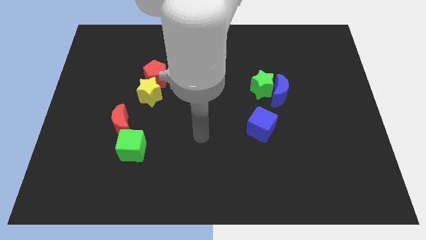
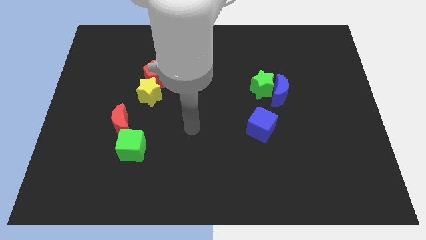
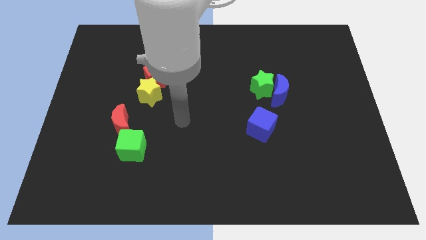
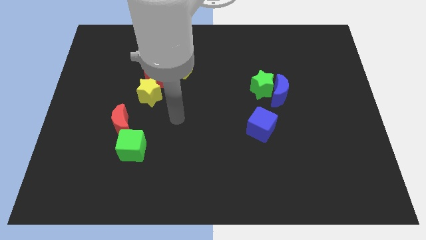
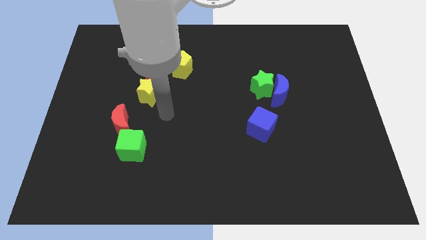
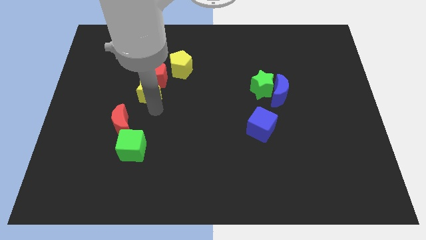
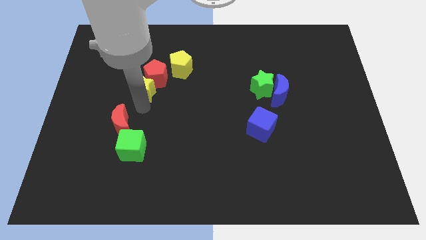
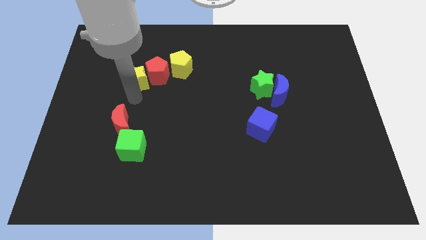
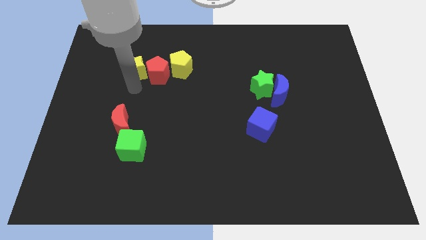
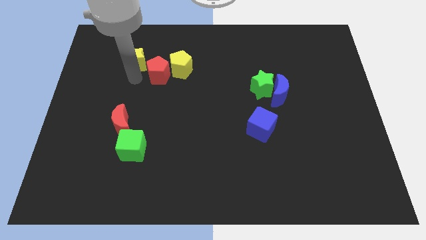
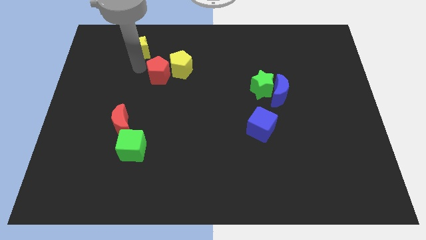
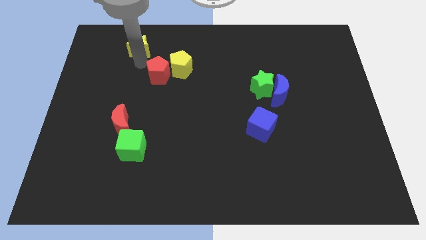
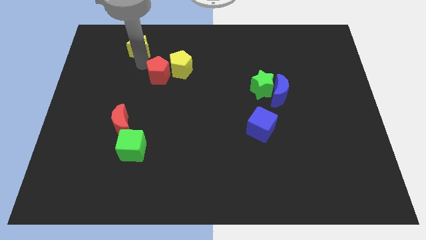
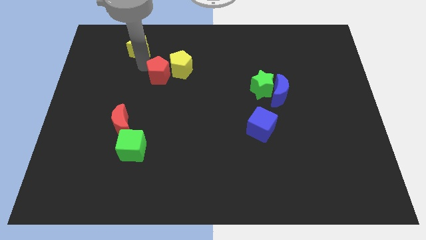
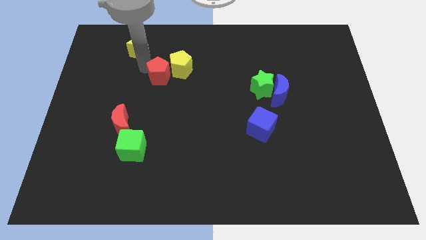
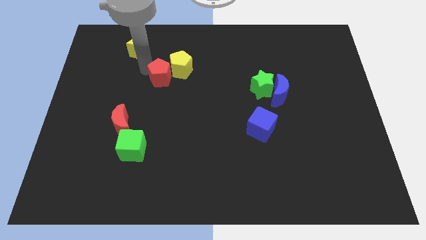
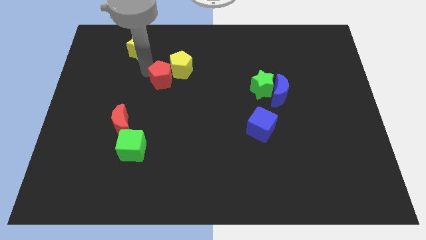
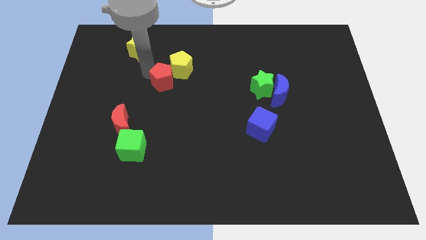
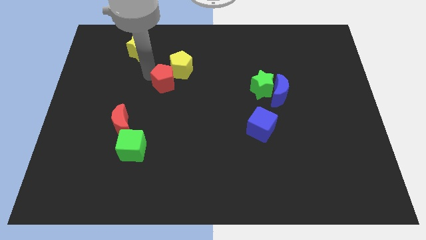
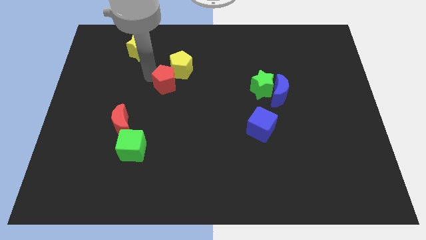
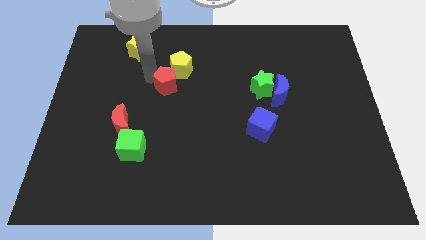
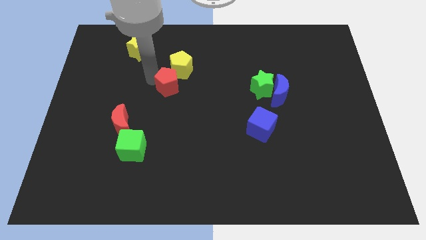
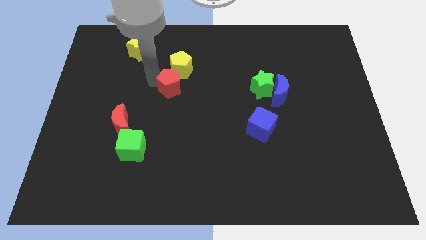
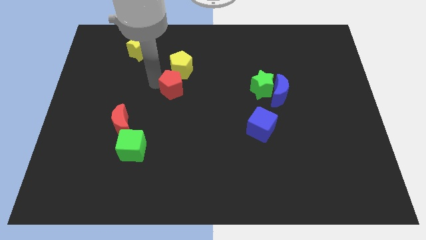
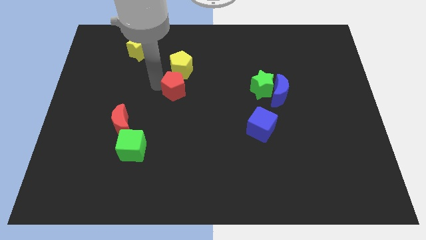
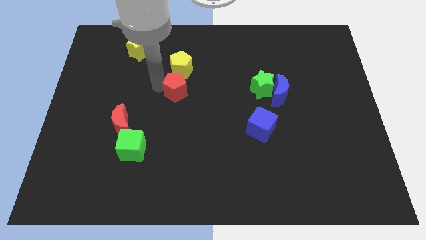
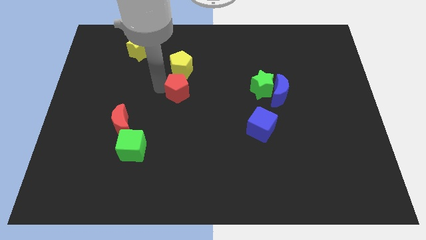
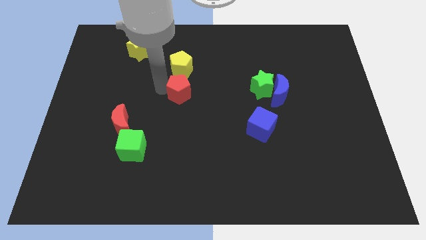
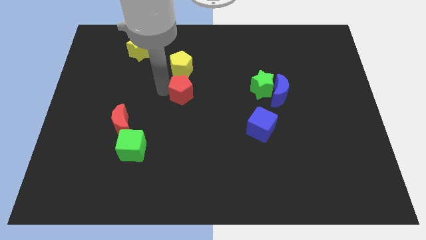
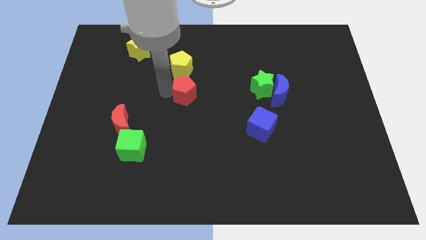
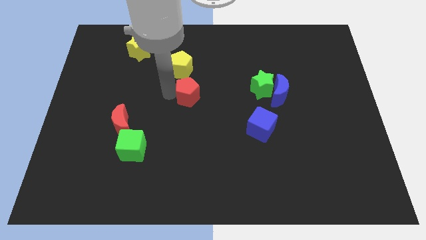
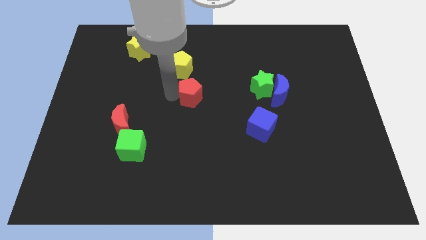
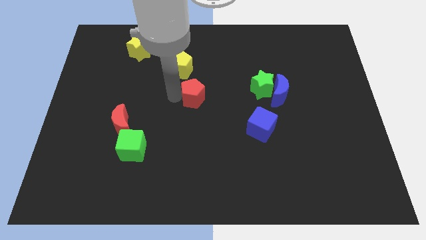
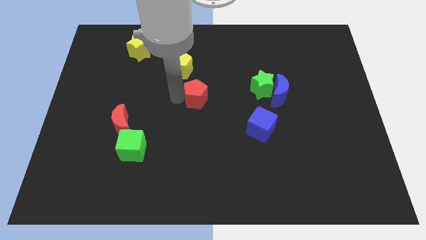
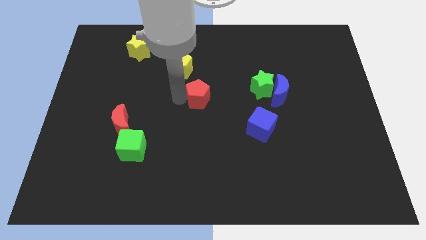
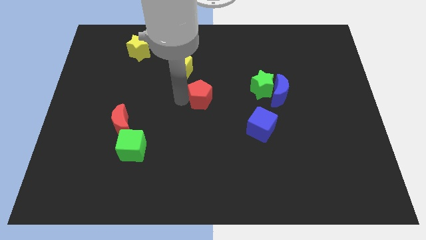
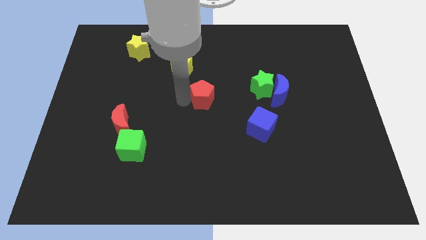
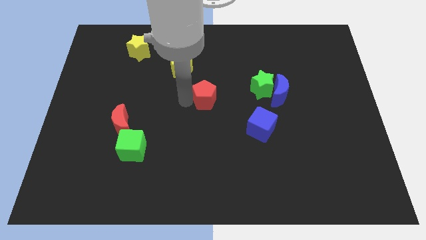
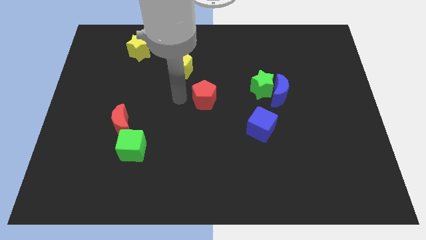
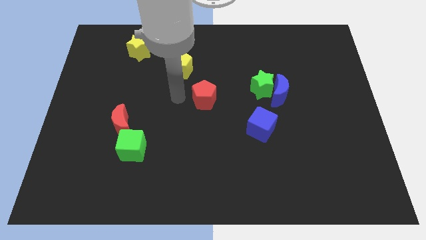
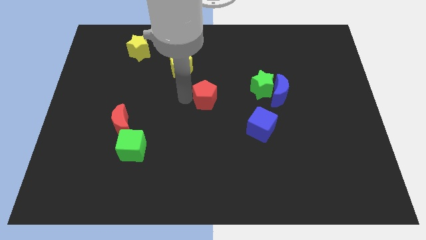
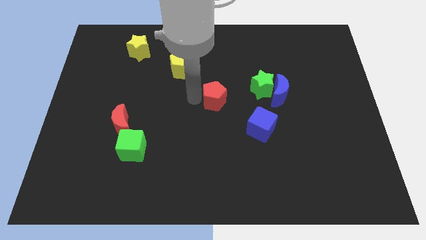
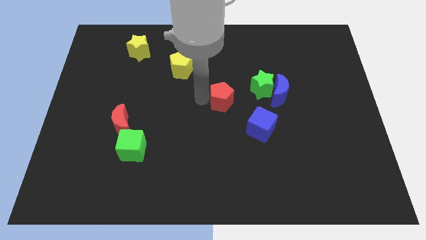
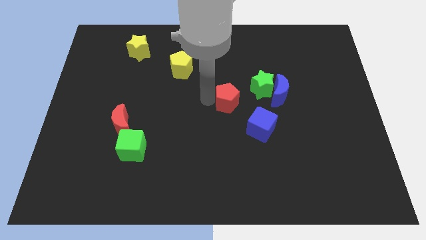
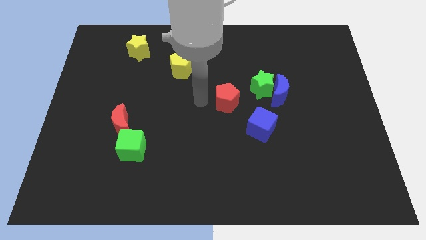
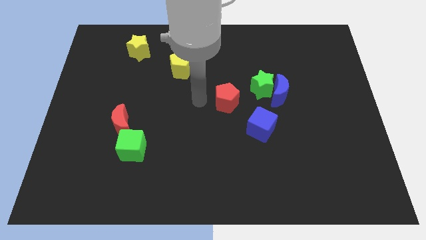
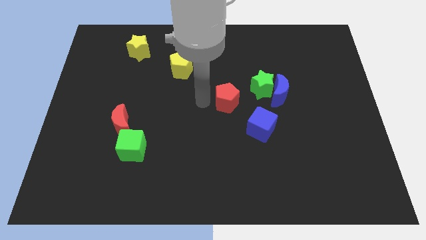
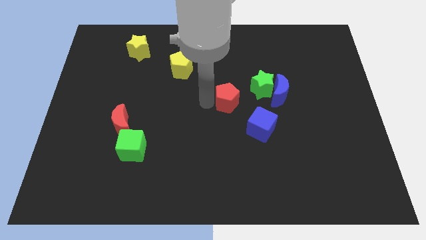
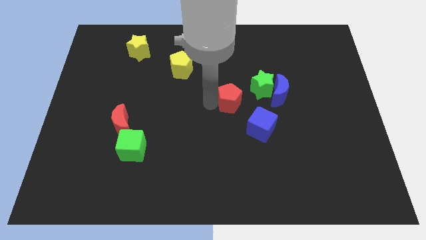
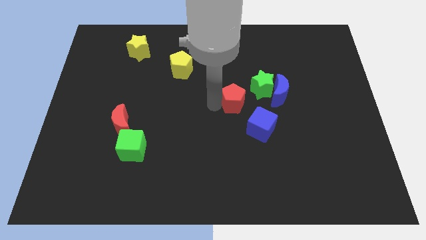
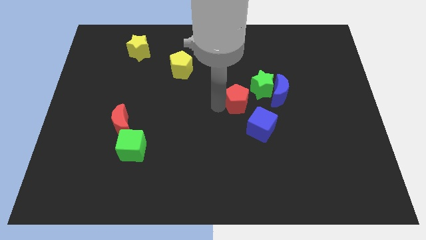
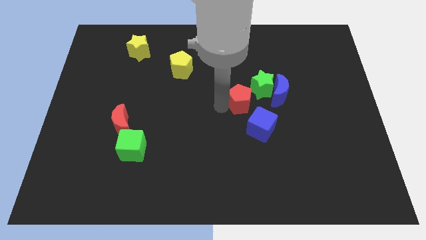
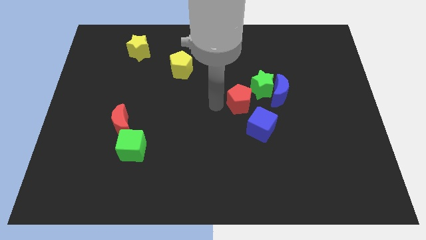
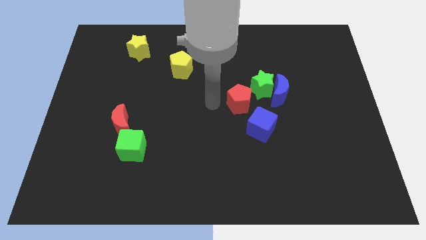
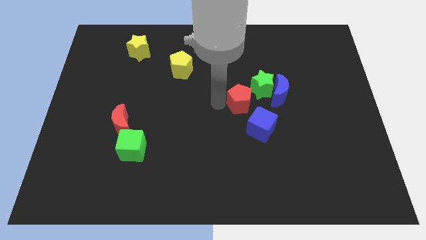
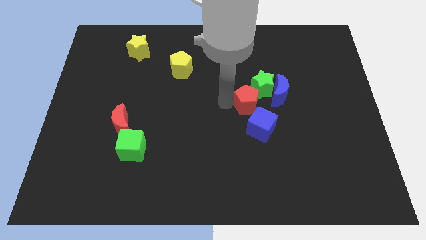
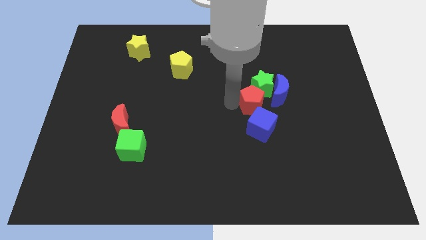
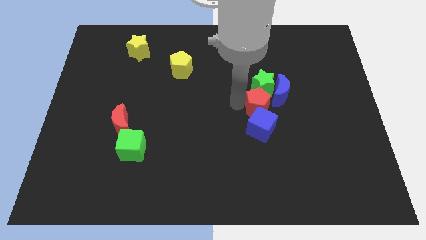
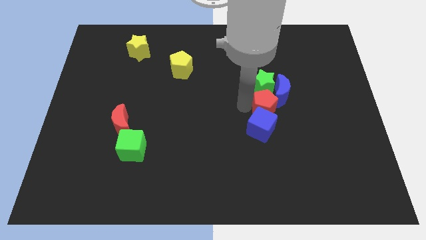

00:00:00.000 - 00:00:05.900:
put the red pentagon close to the blue moon

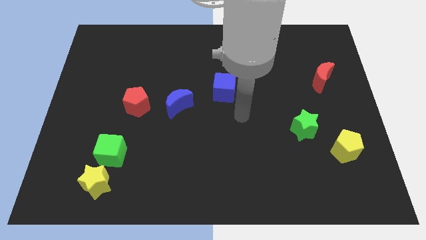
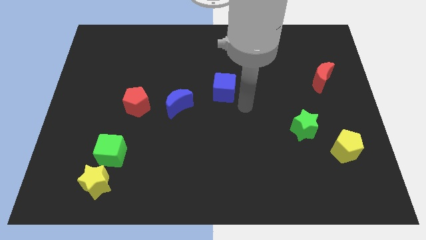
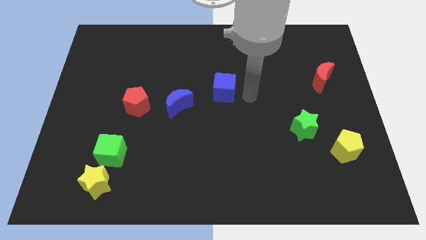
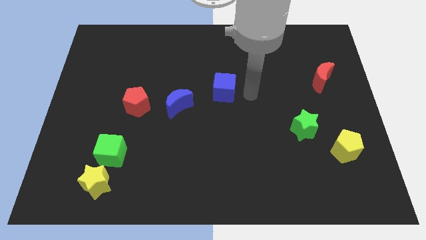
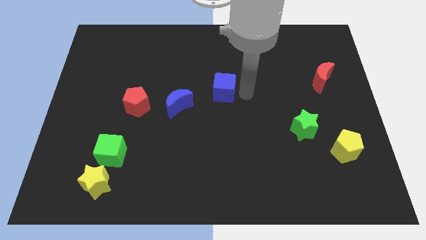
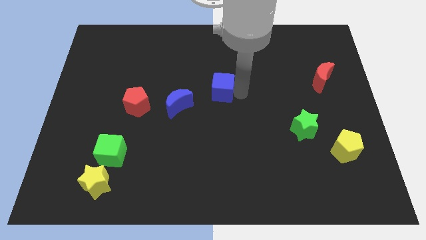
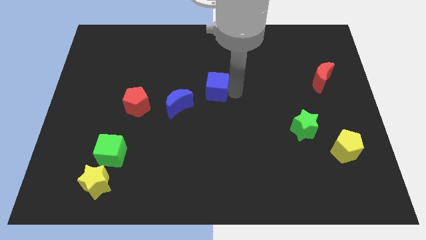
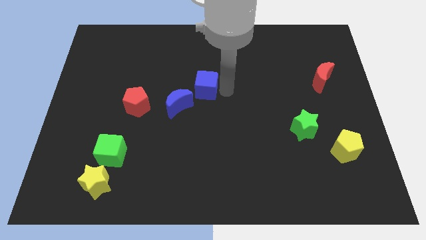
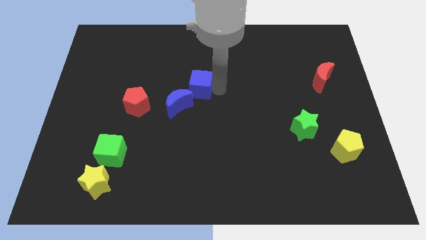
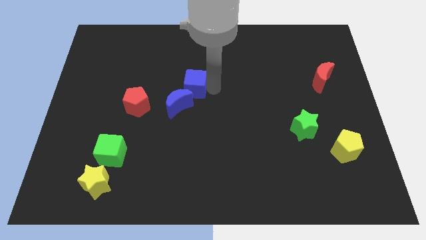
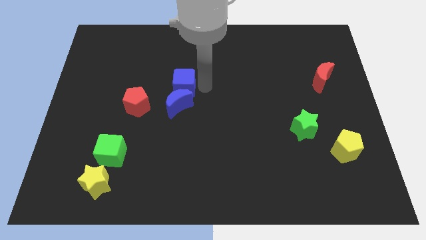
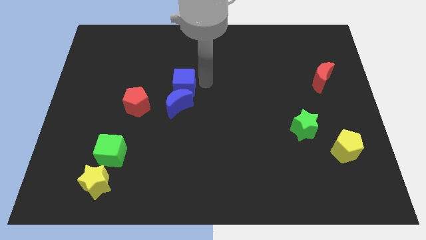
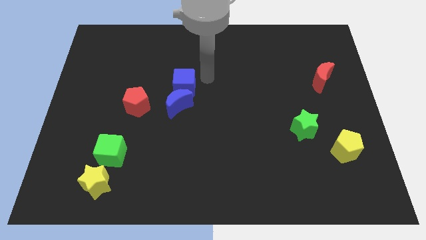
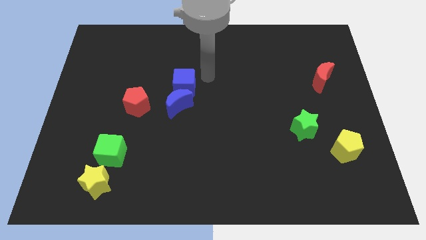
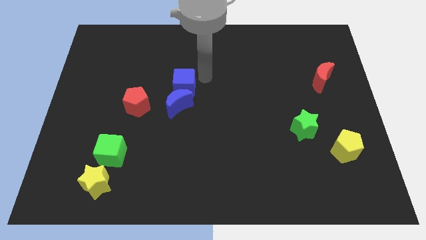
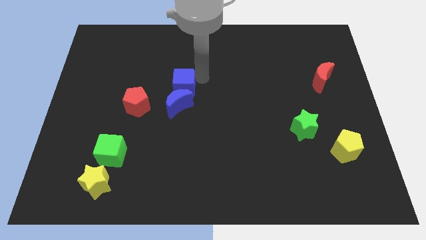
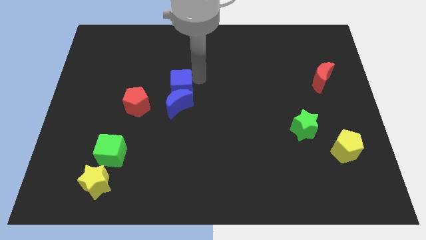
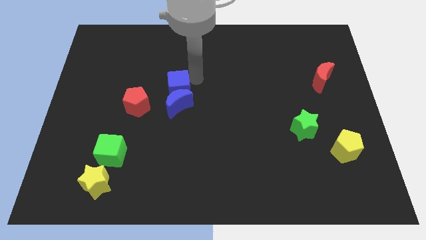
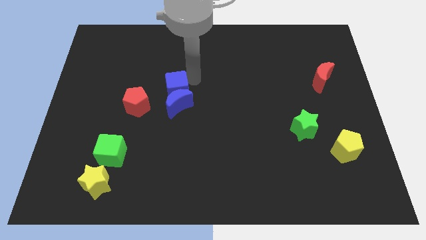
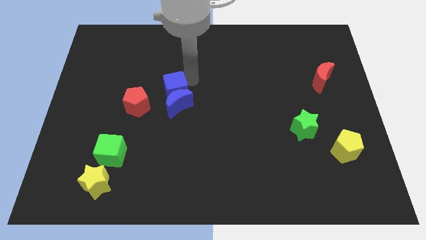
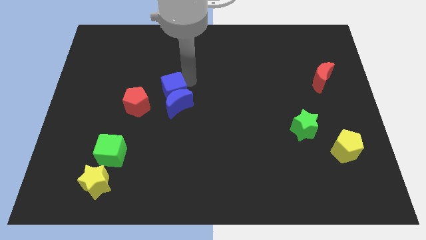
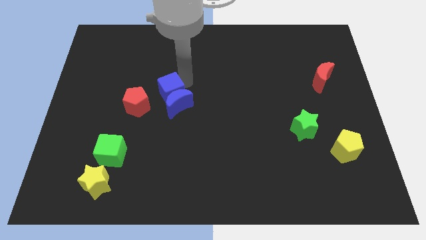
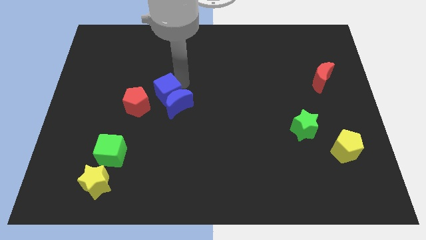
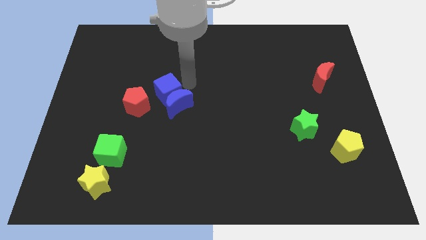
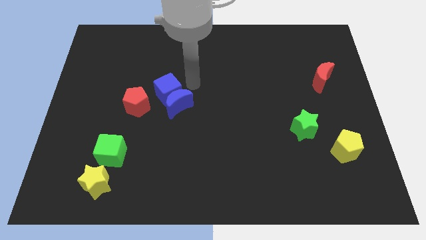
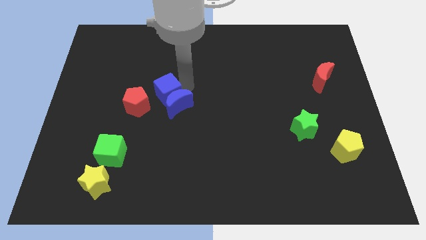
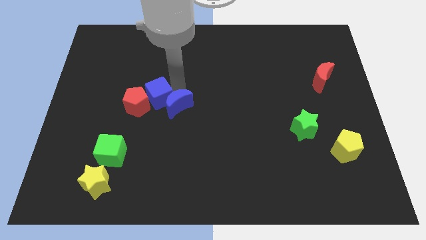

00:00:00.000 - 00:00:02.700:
move the blue cube close to the red pentagon
